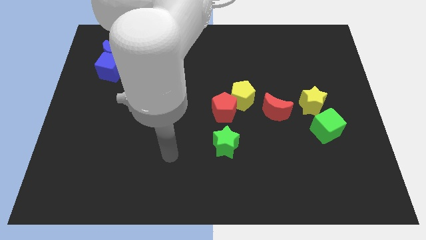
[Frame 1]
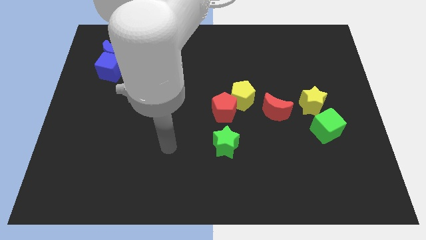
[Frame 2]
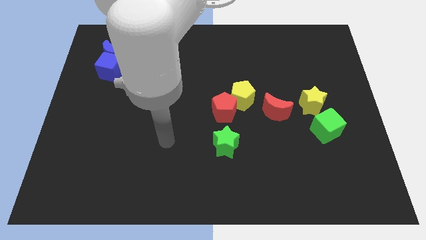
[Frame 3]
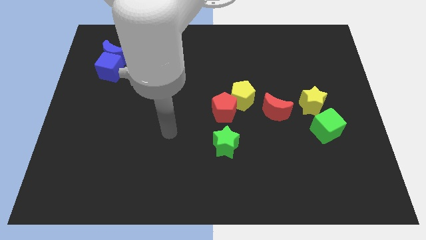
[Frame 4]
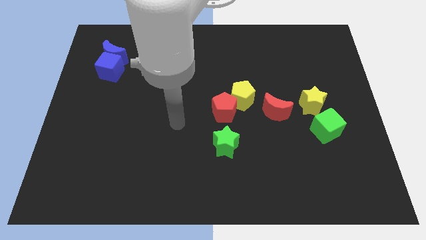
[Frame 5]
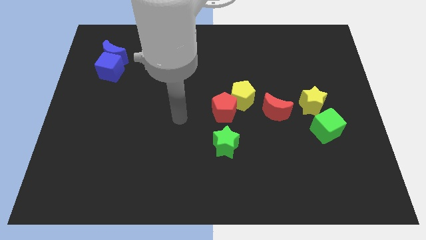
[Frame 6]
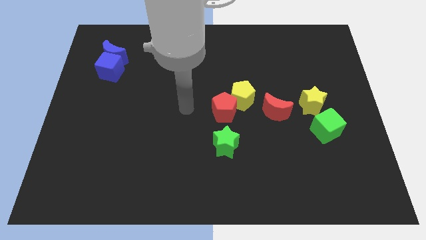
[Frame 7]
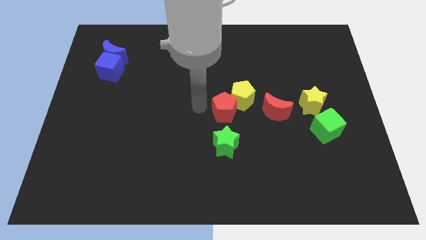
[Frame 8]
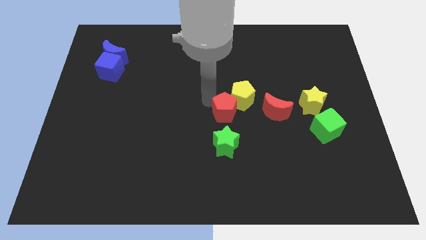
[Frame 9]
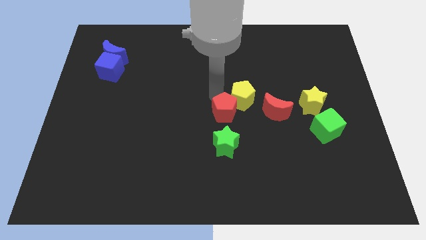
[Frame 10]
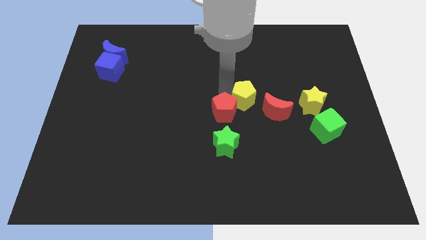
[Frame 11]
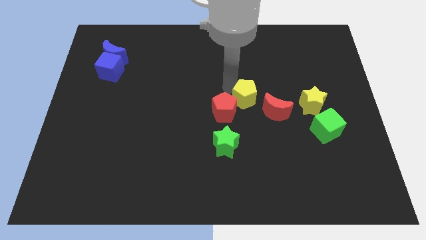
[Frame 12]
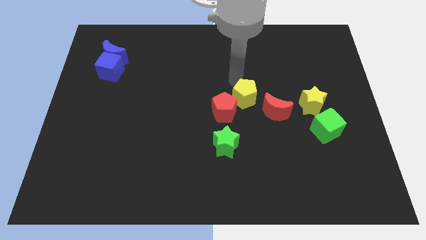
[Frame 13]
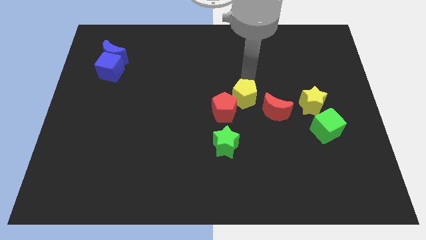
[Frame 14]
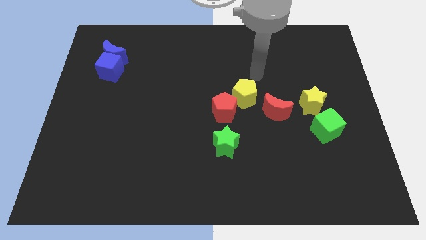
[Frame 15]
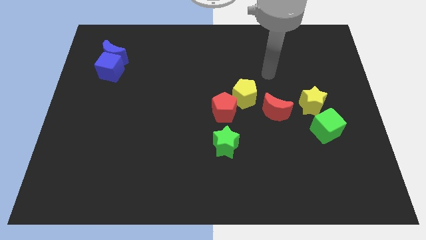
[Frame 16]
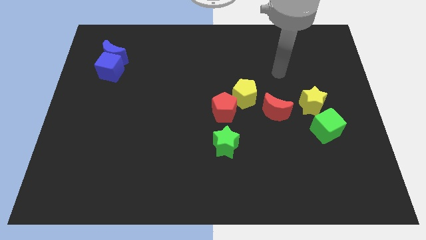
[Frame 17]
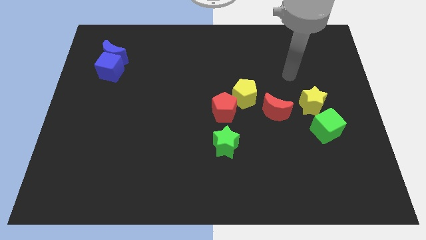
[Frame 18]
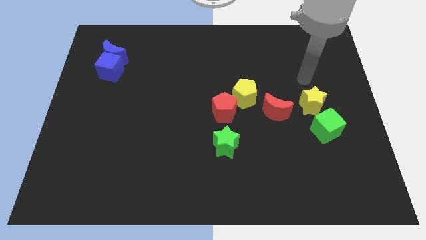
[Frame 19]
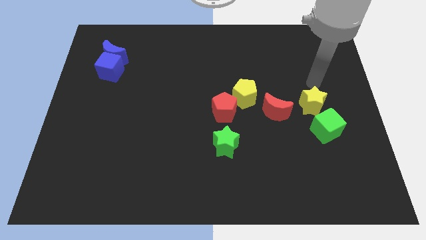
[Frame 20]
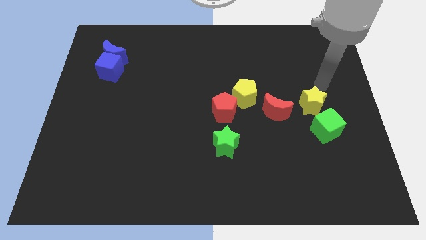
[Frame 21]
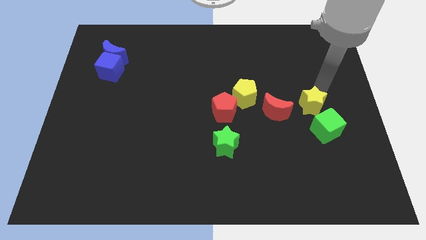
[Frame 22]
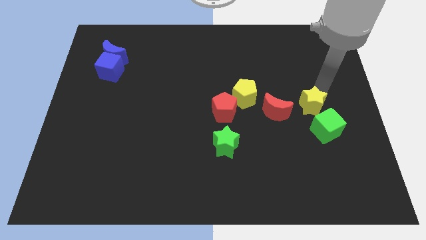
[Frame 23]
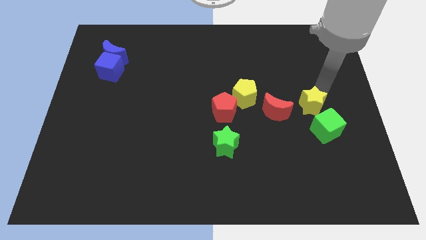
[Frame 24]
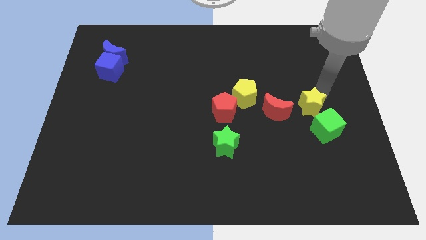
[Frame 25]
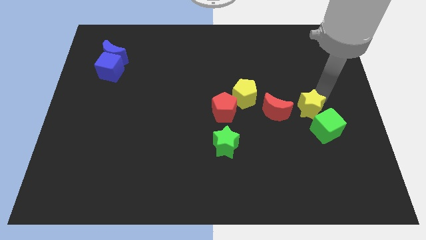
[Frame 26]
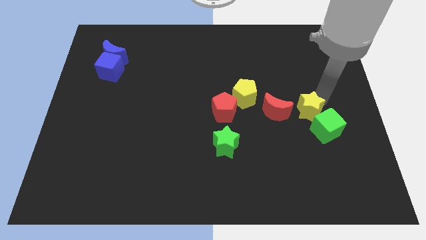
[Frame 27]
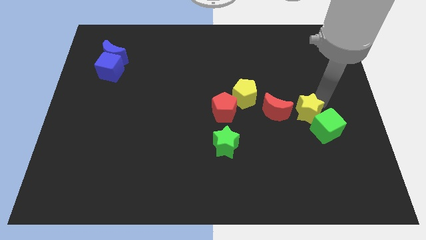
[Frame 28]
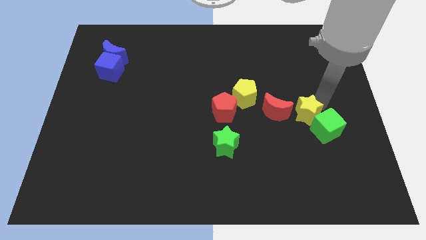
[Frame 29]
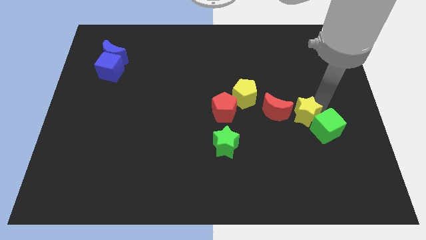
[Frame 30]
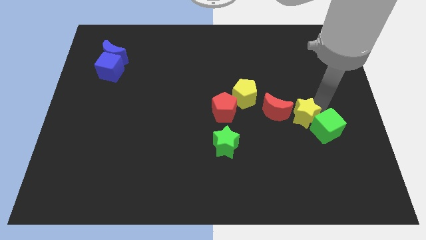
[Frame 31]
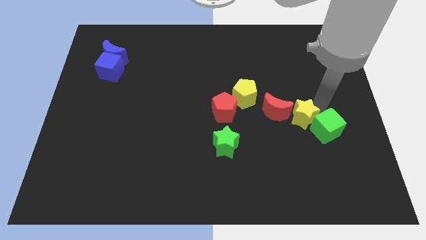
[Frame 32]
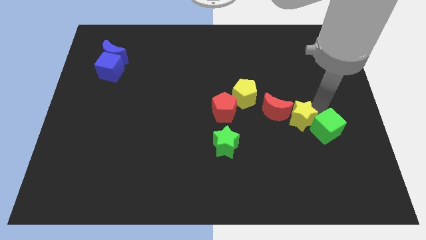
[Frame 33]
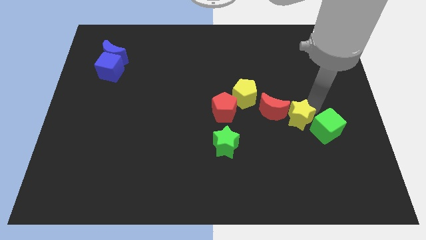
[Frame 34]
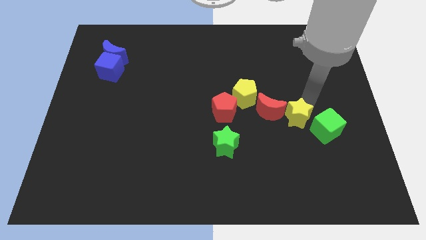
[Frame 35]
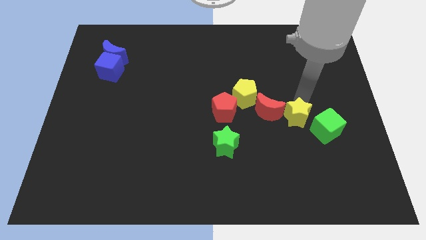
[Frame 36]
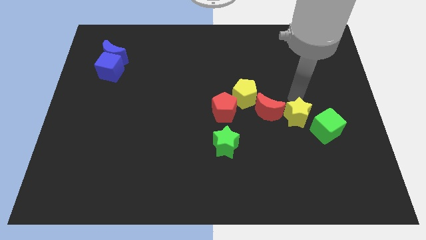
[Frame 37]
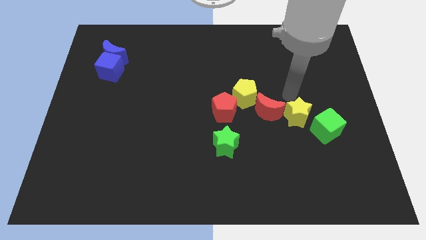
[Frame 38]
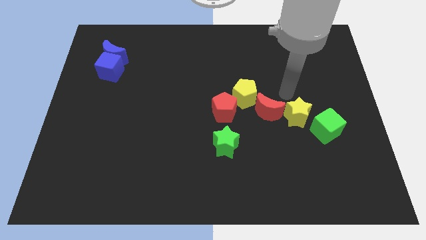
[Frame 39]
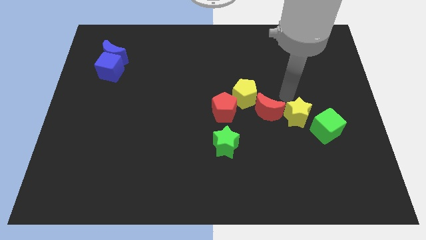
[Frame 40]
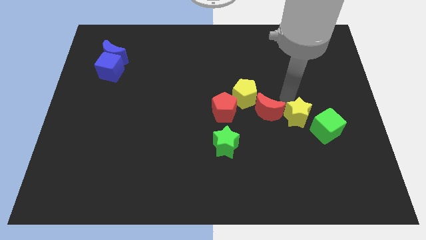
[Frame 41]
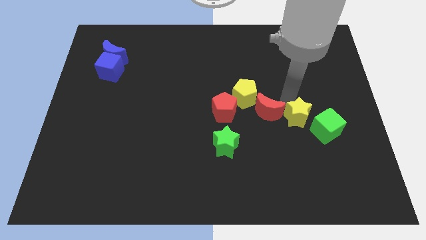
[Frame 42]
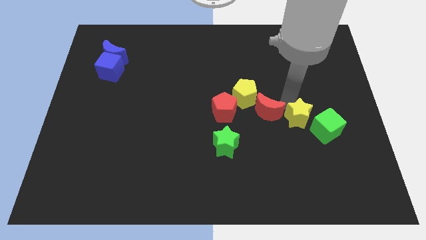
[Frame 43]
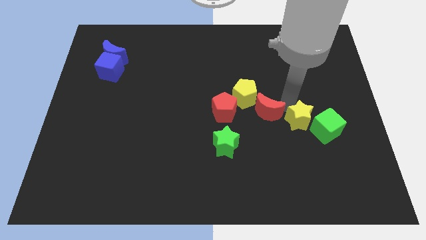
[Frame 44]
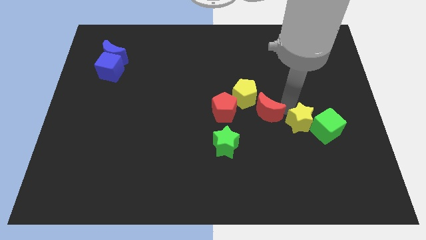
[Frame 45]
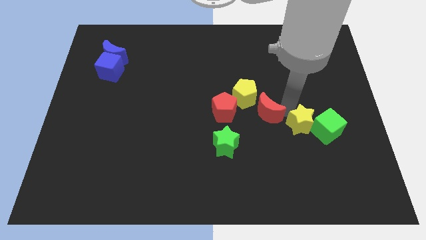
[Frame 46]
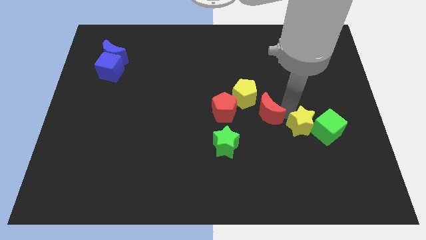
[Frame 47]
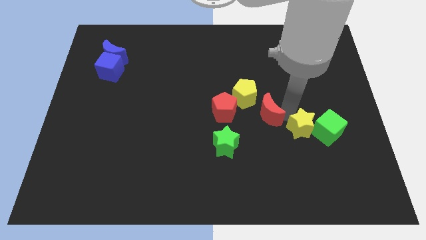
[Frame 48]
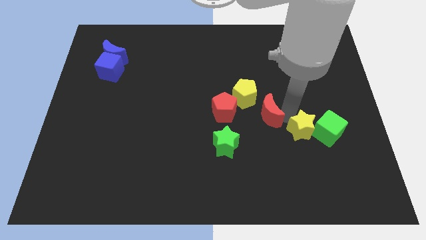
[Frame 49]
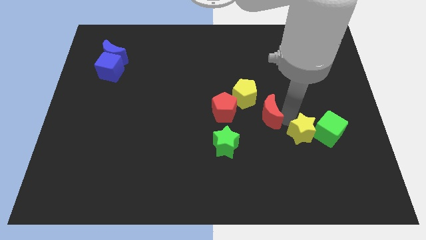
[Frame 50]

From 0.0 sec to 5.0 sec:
slide the yellow star a bit down

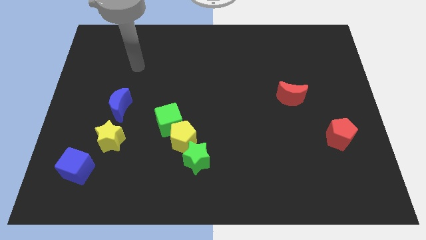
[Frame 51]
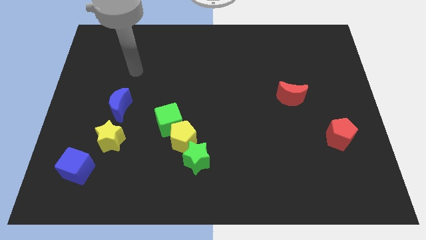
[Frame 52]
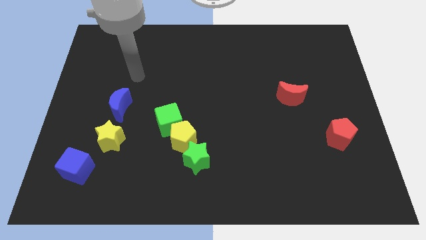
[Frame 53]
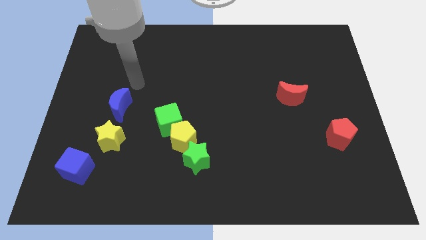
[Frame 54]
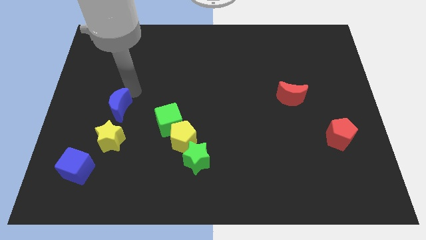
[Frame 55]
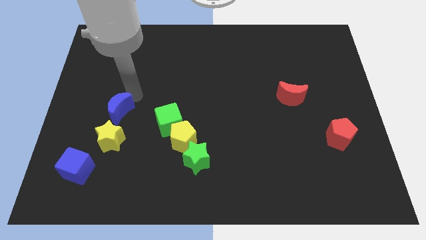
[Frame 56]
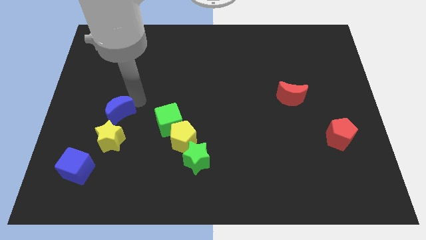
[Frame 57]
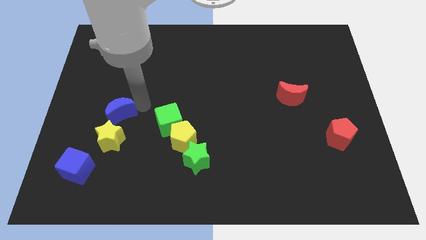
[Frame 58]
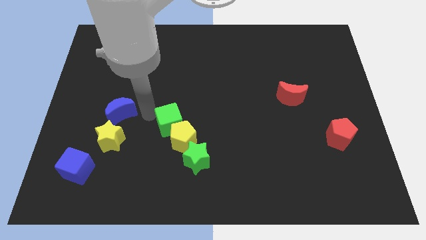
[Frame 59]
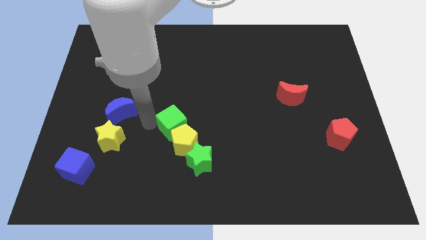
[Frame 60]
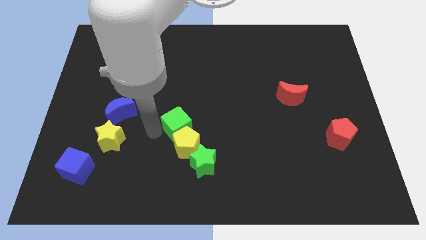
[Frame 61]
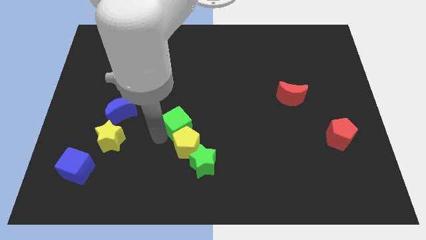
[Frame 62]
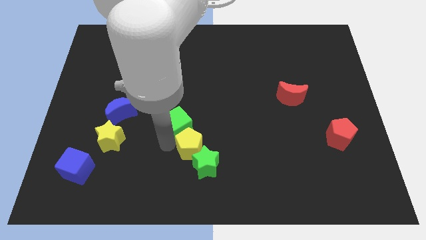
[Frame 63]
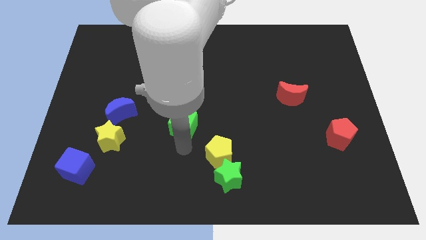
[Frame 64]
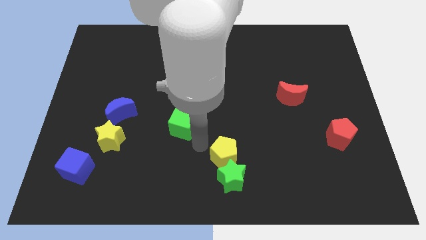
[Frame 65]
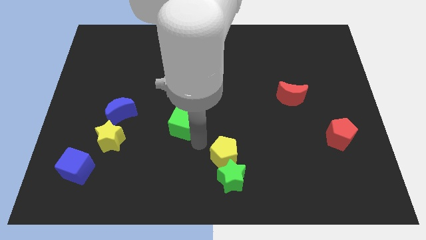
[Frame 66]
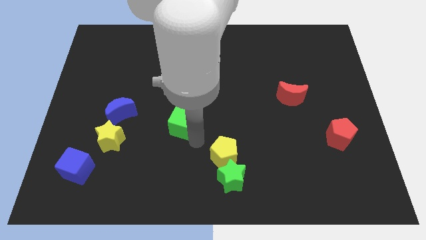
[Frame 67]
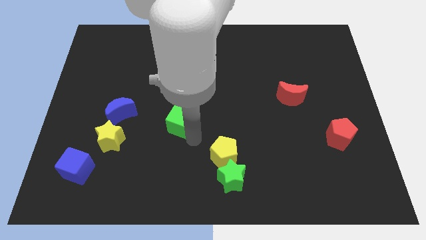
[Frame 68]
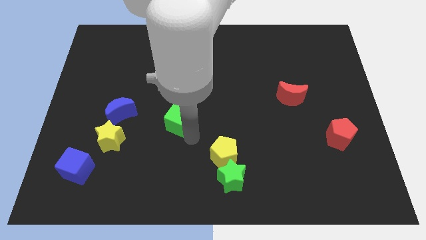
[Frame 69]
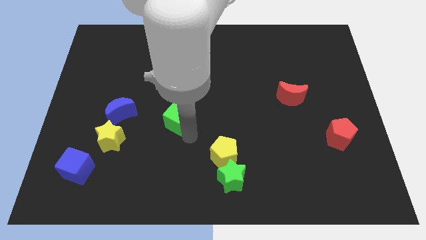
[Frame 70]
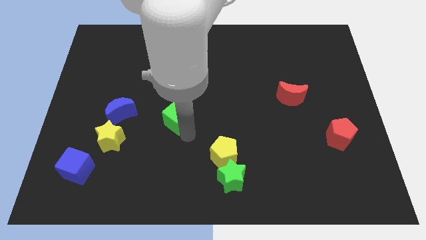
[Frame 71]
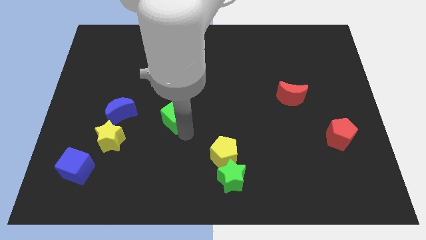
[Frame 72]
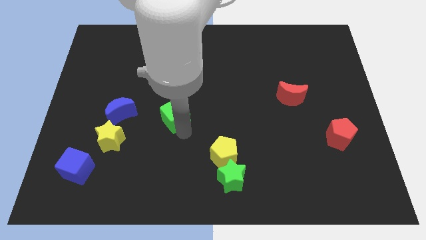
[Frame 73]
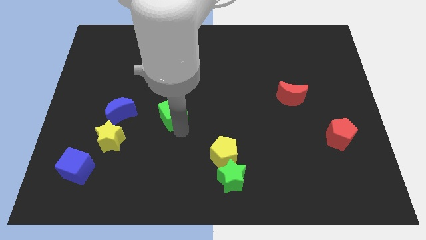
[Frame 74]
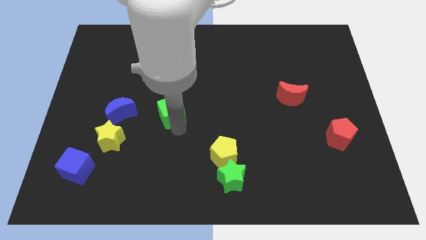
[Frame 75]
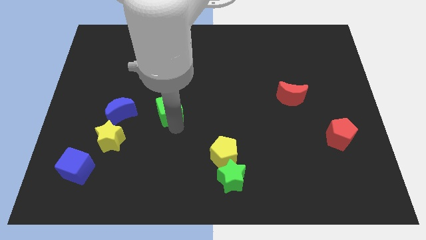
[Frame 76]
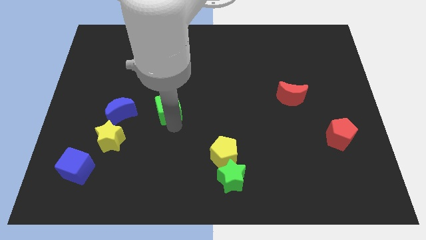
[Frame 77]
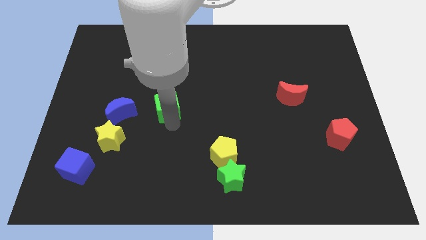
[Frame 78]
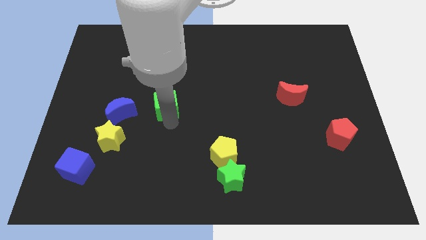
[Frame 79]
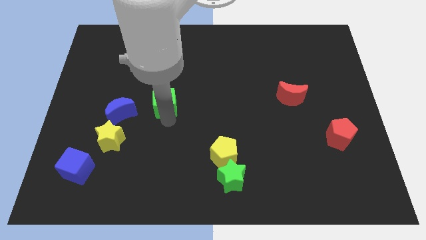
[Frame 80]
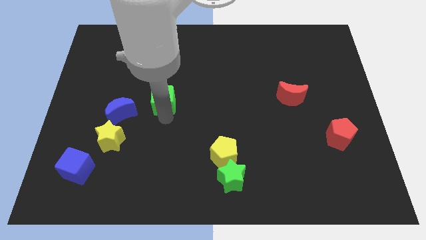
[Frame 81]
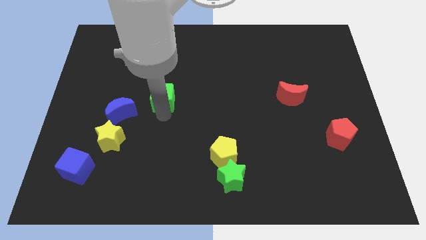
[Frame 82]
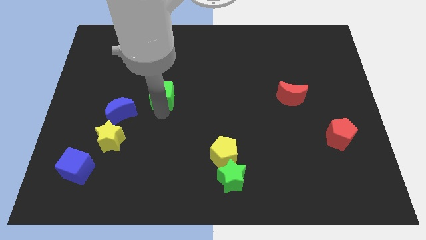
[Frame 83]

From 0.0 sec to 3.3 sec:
move the green cube a bit up
